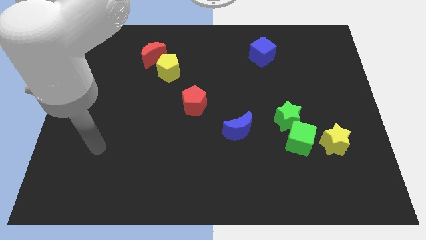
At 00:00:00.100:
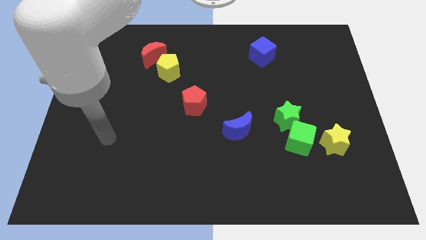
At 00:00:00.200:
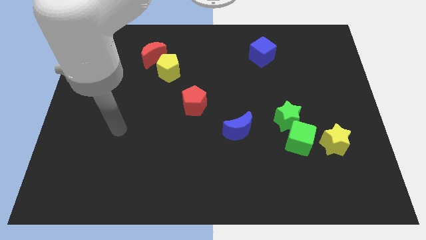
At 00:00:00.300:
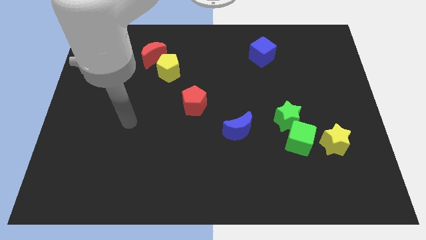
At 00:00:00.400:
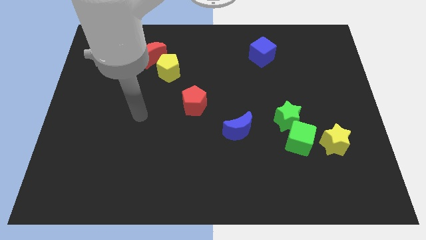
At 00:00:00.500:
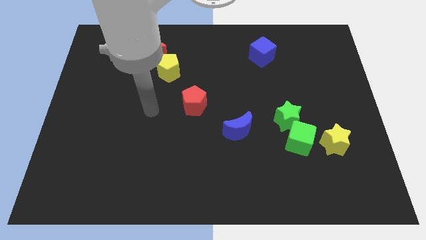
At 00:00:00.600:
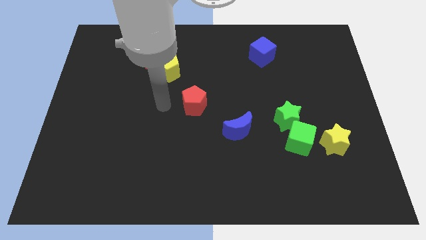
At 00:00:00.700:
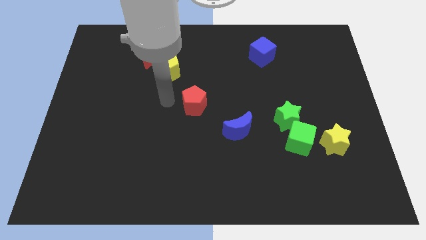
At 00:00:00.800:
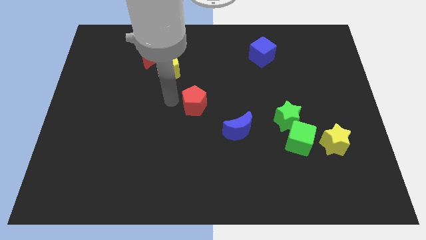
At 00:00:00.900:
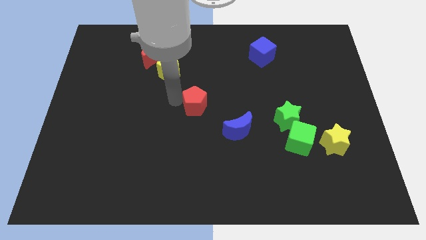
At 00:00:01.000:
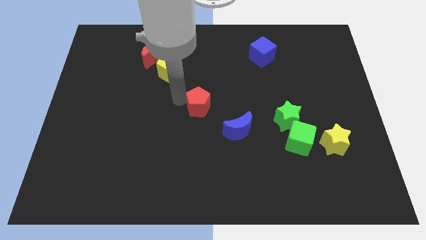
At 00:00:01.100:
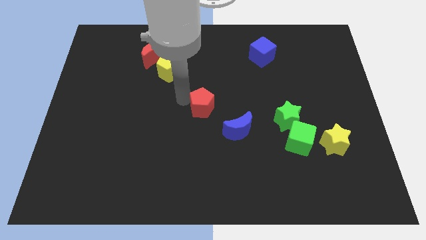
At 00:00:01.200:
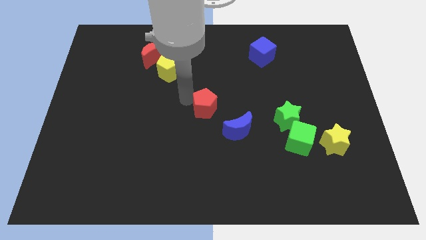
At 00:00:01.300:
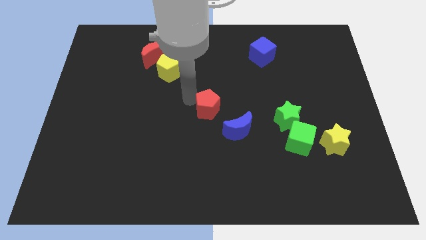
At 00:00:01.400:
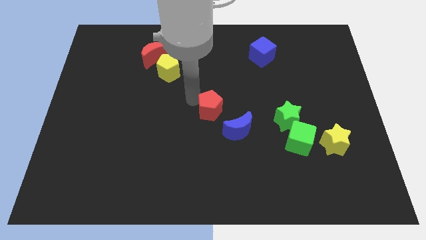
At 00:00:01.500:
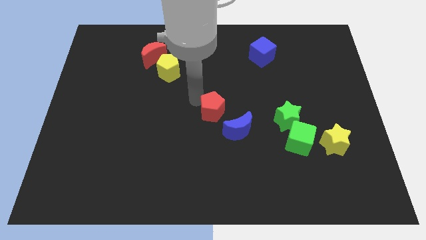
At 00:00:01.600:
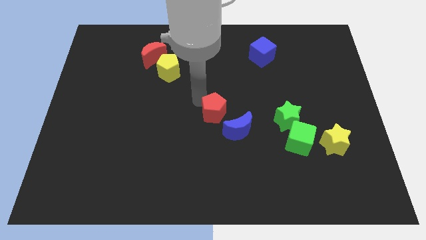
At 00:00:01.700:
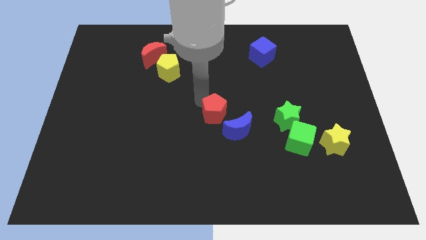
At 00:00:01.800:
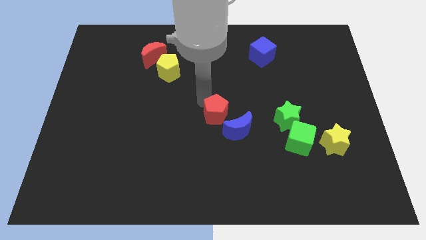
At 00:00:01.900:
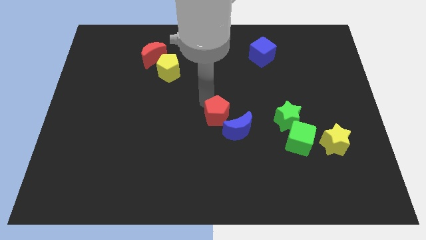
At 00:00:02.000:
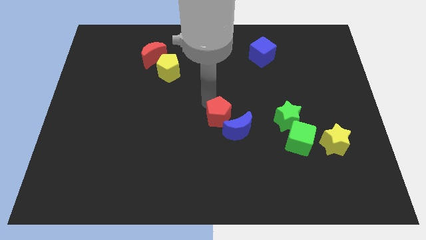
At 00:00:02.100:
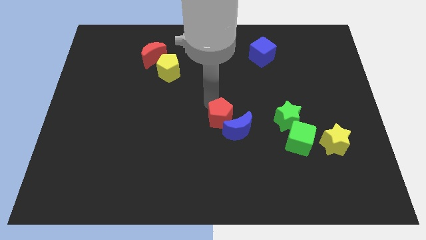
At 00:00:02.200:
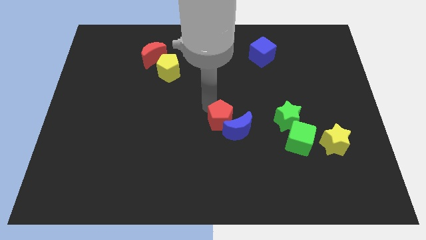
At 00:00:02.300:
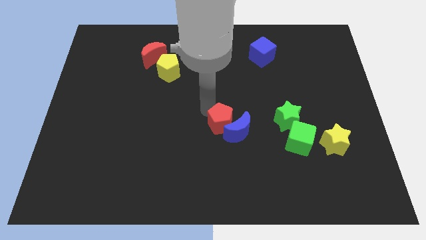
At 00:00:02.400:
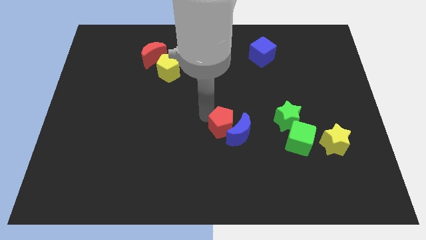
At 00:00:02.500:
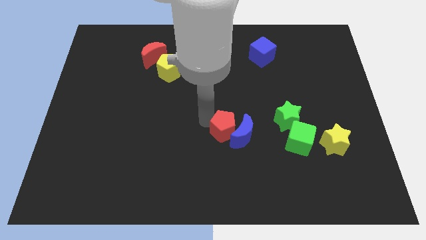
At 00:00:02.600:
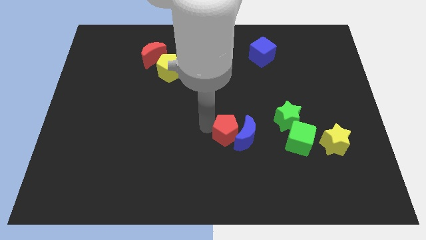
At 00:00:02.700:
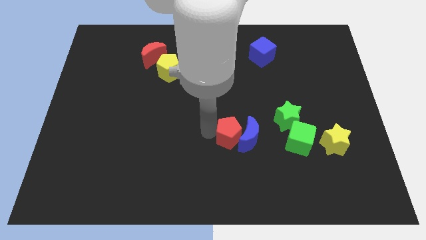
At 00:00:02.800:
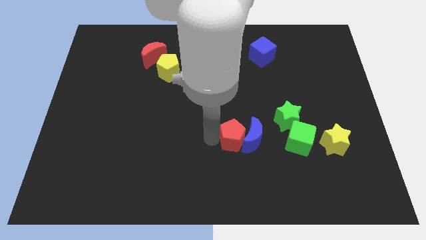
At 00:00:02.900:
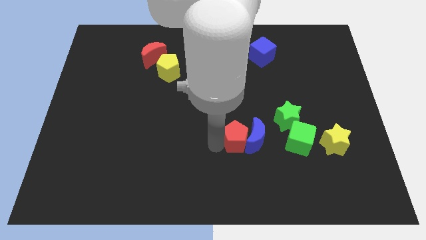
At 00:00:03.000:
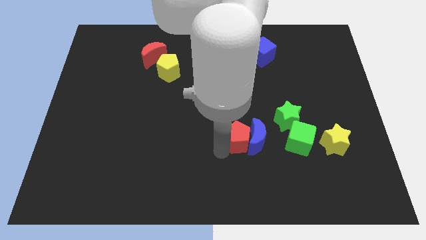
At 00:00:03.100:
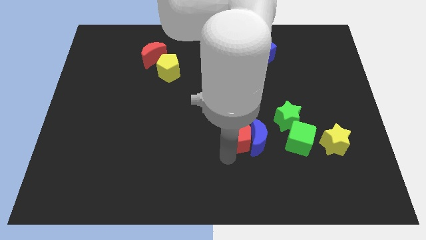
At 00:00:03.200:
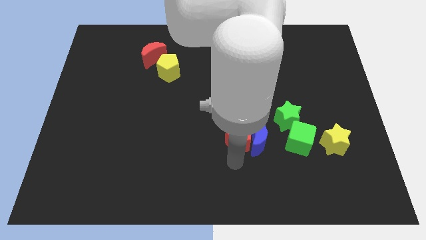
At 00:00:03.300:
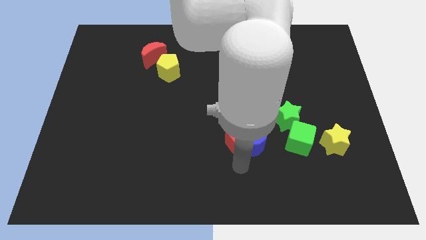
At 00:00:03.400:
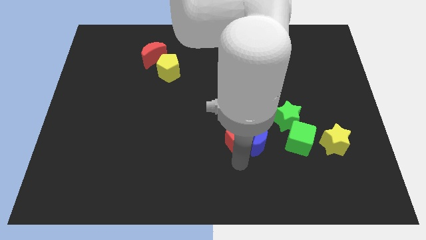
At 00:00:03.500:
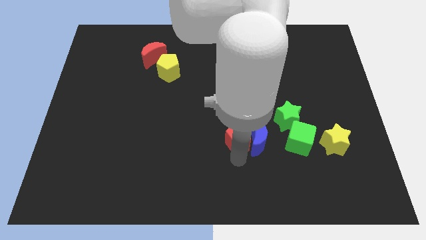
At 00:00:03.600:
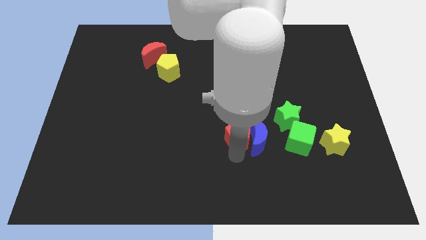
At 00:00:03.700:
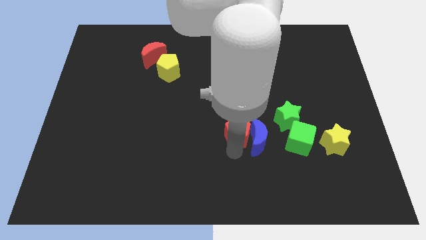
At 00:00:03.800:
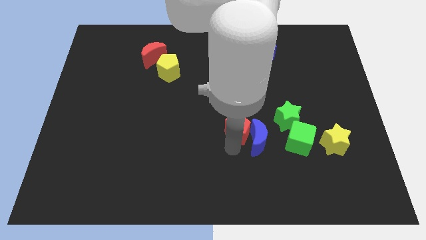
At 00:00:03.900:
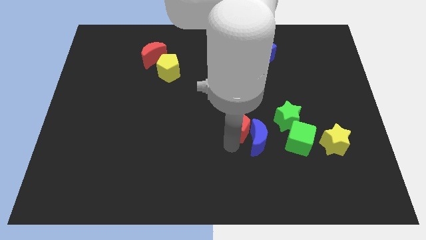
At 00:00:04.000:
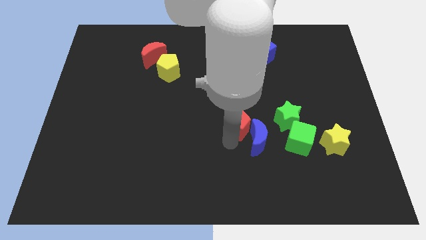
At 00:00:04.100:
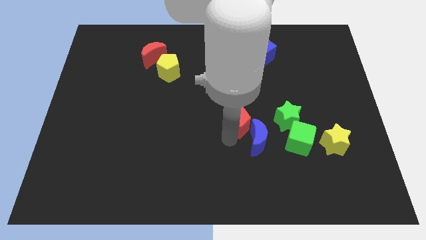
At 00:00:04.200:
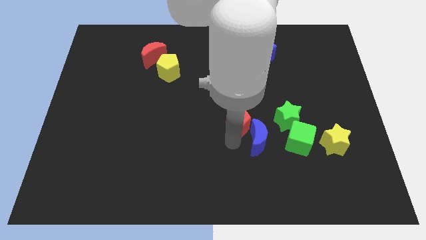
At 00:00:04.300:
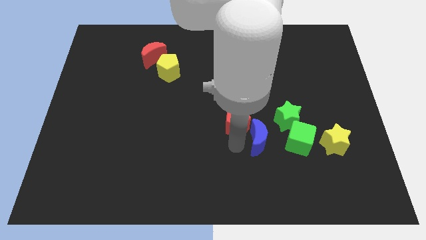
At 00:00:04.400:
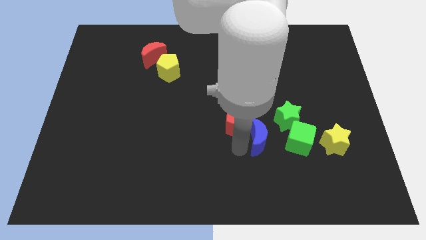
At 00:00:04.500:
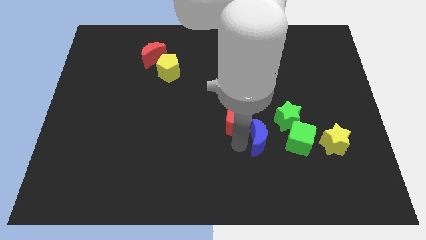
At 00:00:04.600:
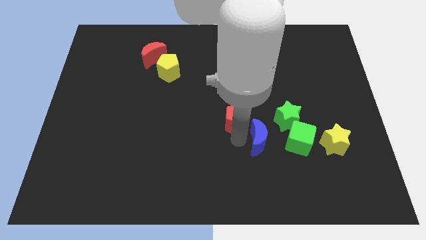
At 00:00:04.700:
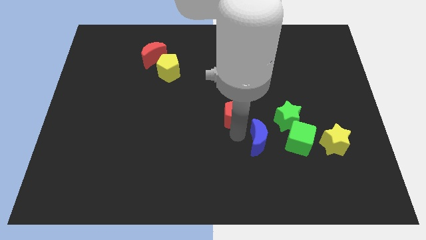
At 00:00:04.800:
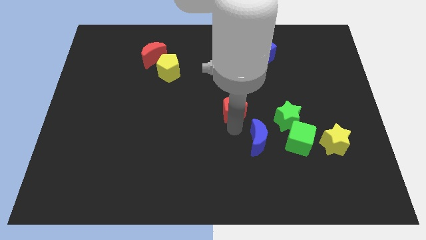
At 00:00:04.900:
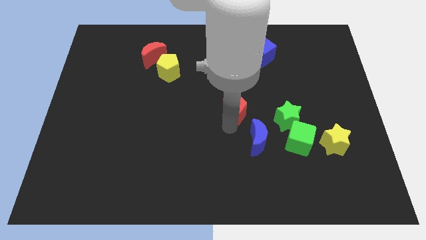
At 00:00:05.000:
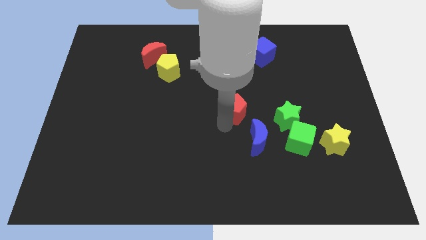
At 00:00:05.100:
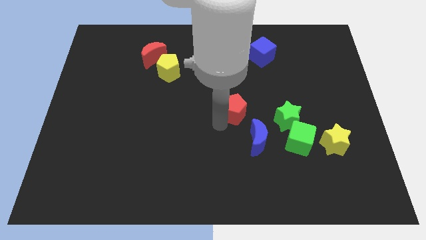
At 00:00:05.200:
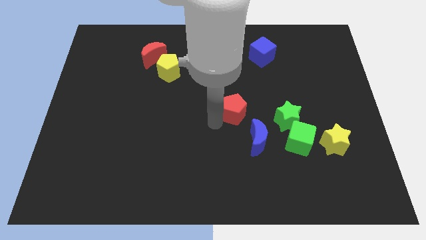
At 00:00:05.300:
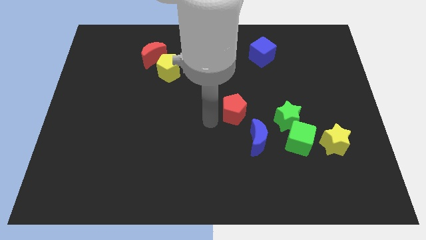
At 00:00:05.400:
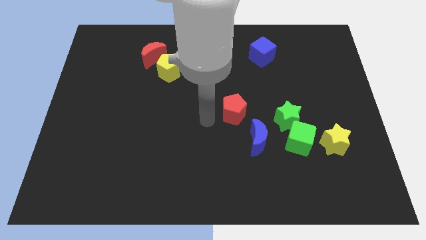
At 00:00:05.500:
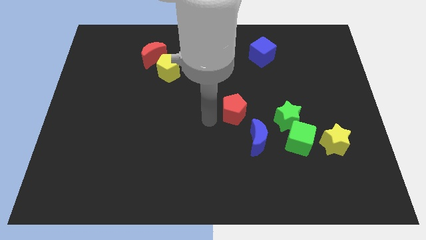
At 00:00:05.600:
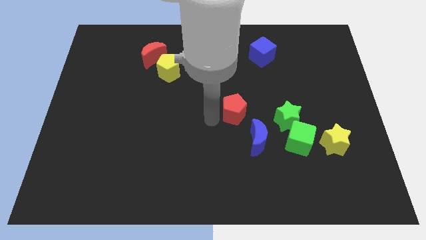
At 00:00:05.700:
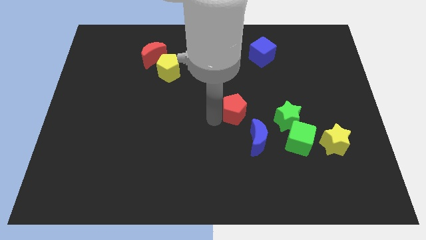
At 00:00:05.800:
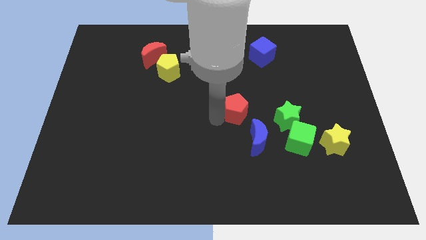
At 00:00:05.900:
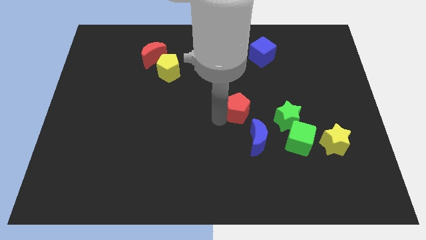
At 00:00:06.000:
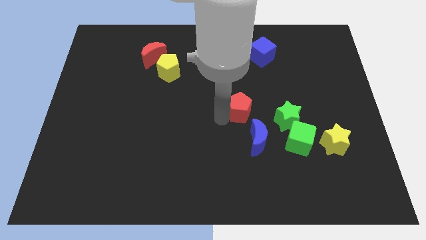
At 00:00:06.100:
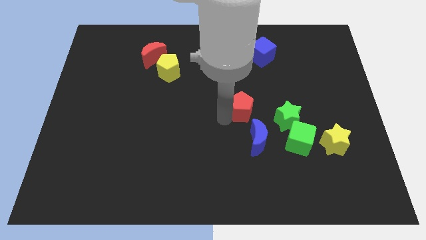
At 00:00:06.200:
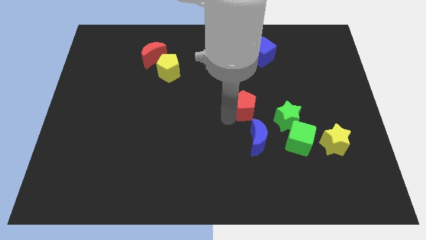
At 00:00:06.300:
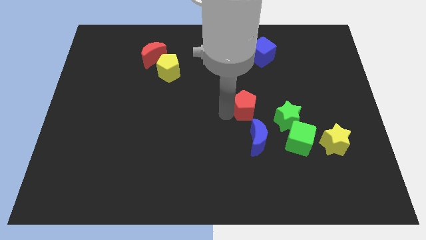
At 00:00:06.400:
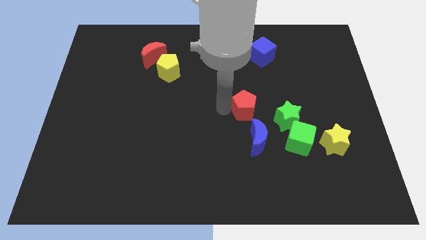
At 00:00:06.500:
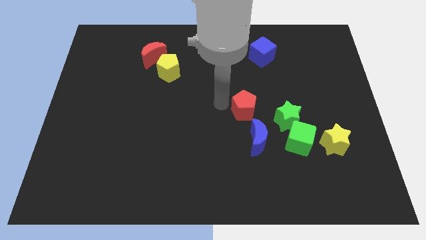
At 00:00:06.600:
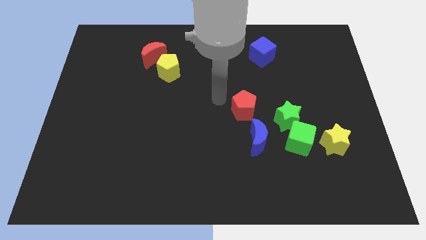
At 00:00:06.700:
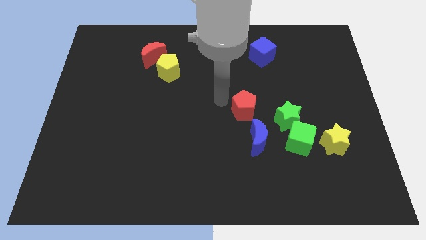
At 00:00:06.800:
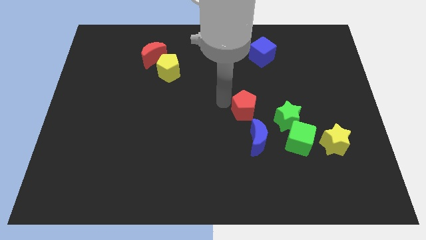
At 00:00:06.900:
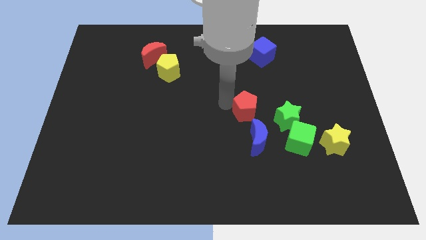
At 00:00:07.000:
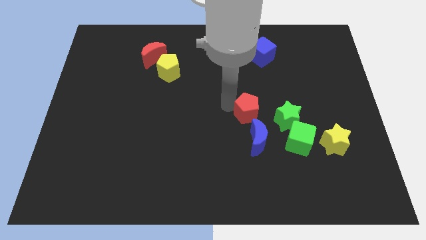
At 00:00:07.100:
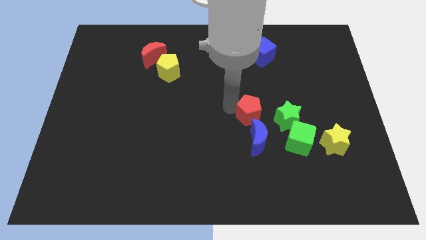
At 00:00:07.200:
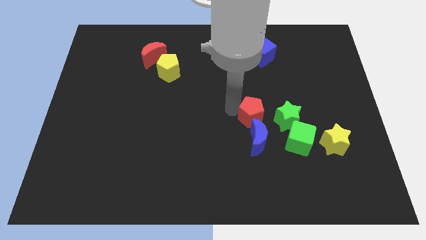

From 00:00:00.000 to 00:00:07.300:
push the red pentagon to the top left of the green cube
